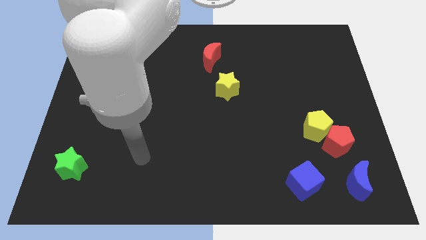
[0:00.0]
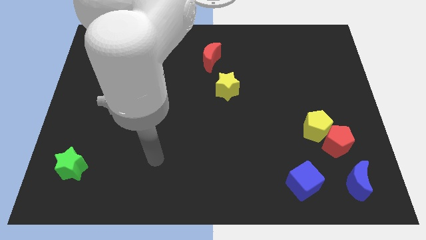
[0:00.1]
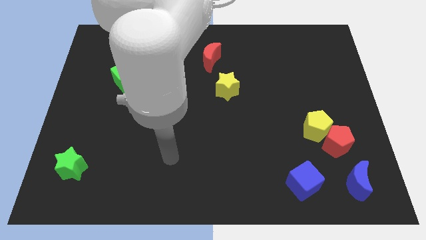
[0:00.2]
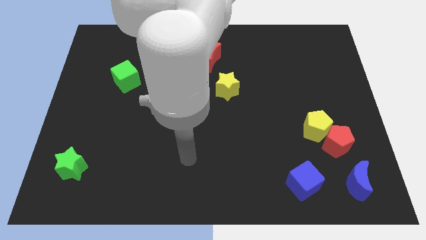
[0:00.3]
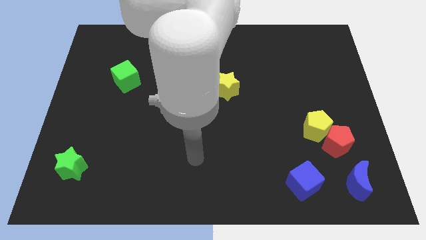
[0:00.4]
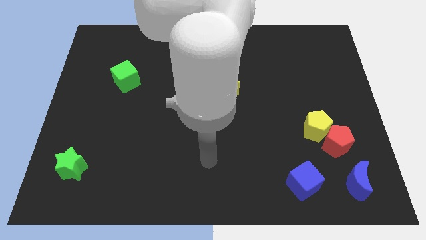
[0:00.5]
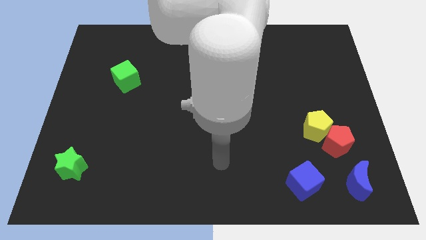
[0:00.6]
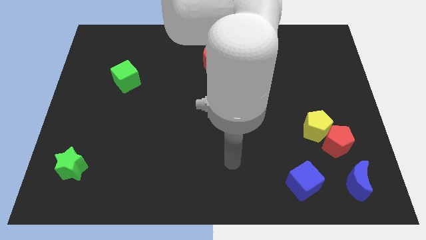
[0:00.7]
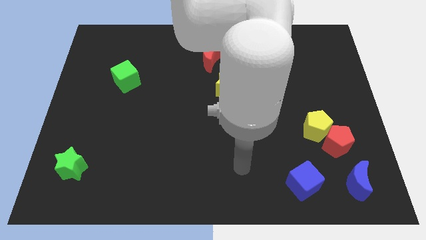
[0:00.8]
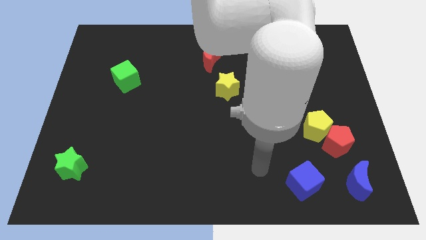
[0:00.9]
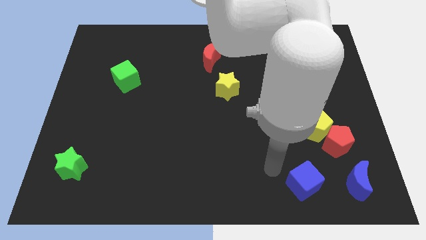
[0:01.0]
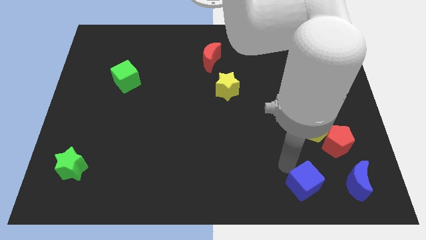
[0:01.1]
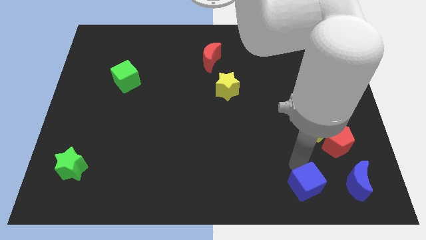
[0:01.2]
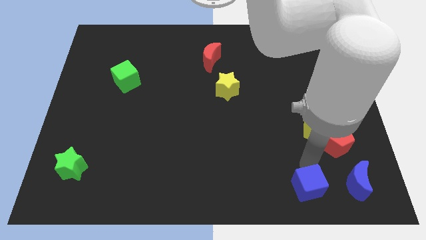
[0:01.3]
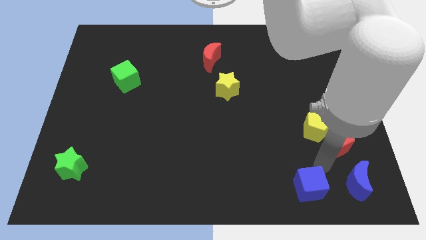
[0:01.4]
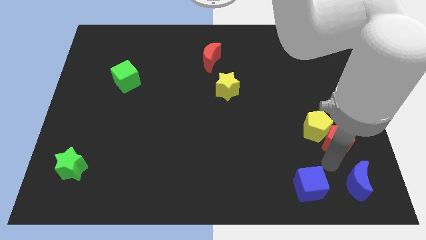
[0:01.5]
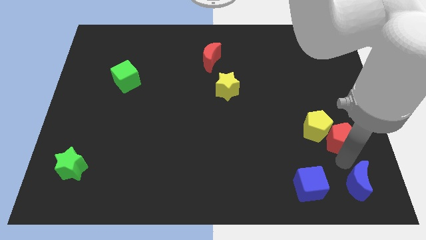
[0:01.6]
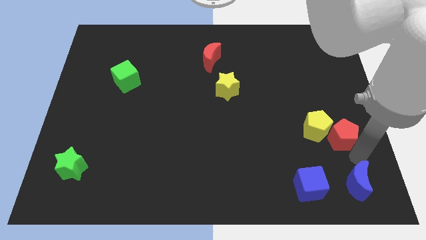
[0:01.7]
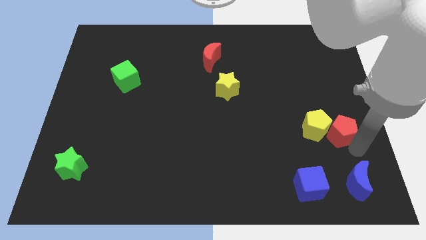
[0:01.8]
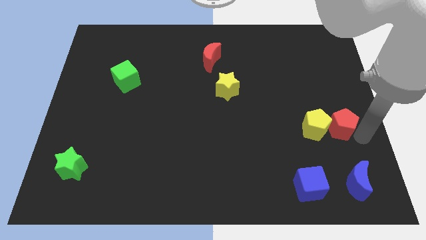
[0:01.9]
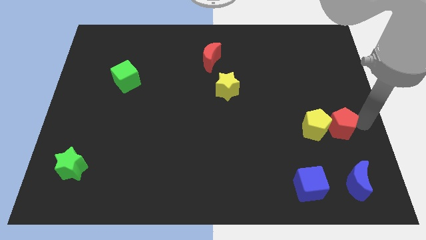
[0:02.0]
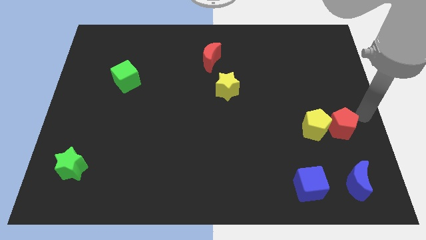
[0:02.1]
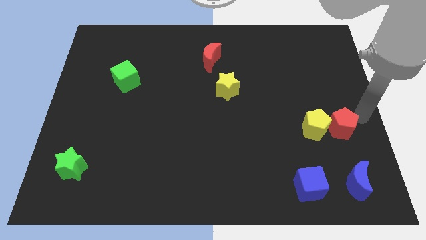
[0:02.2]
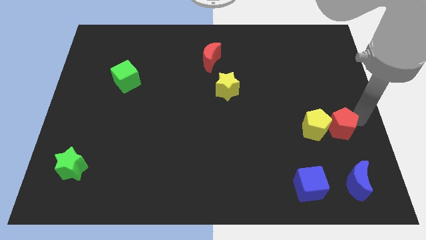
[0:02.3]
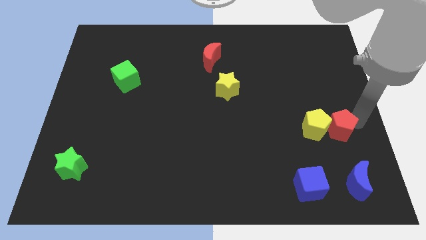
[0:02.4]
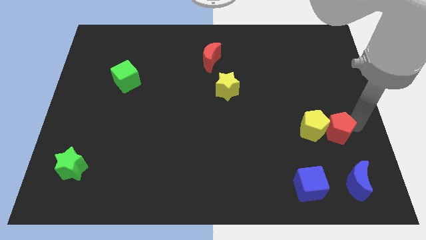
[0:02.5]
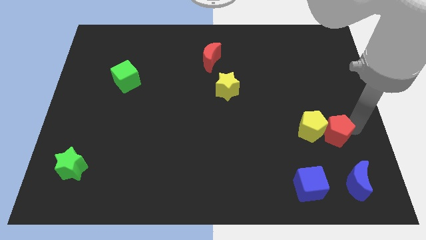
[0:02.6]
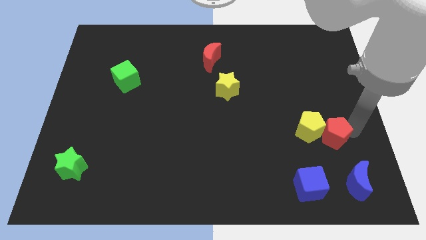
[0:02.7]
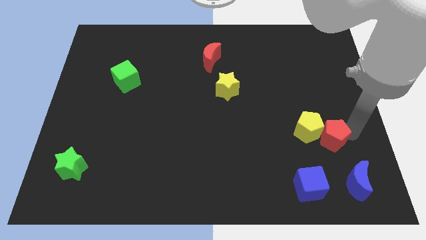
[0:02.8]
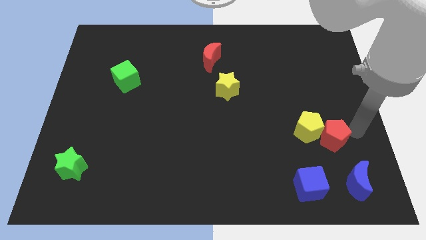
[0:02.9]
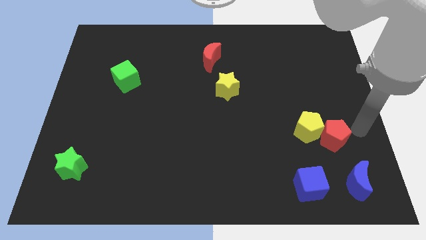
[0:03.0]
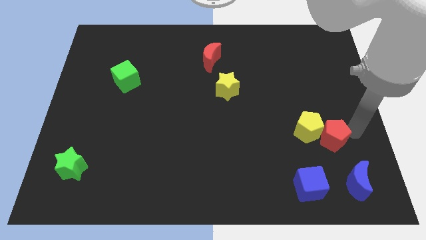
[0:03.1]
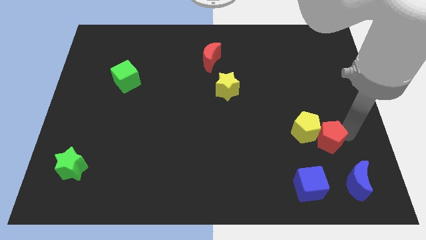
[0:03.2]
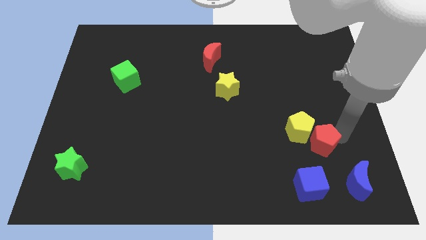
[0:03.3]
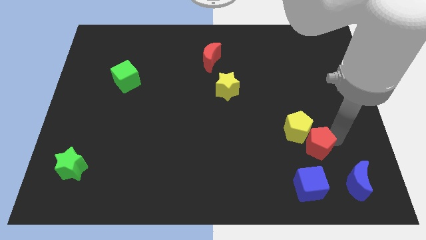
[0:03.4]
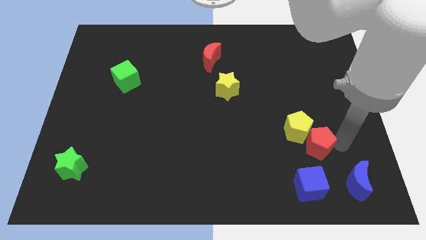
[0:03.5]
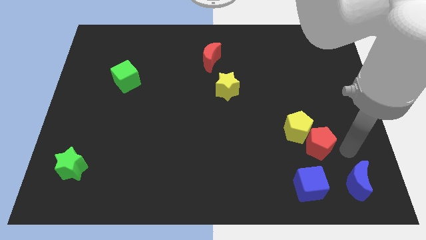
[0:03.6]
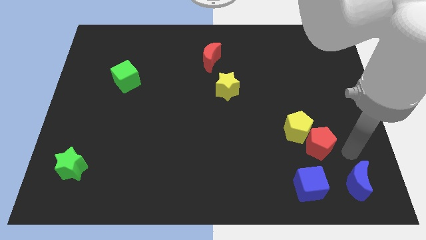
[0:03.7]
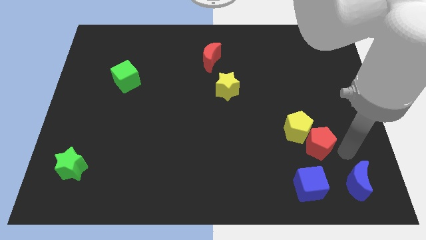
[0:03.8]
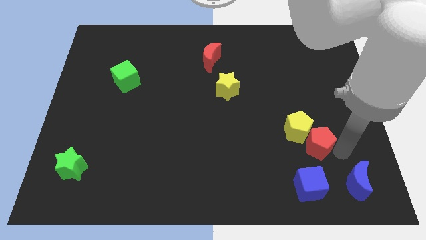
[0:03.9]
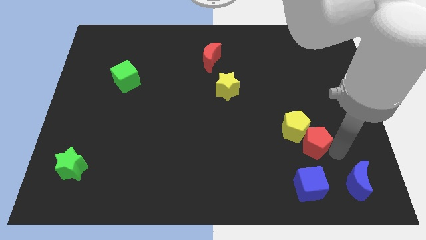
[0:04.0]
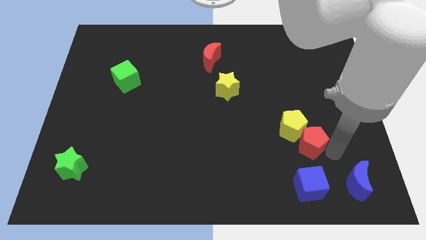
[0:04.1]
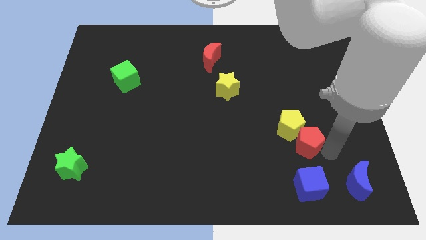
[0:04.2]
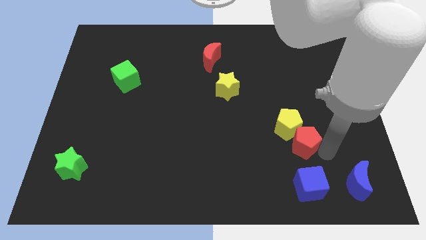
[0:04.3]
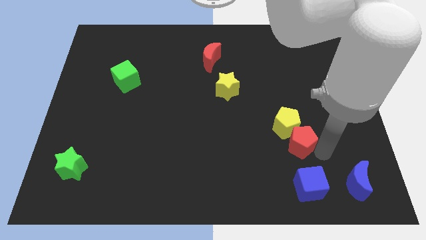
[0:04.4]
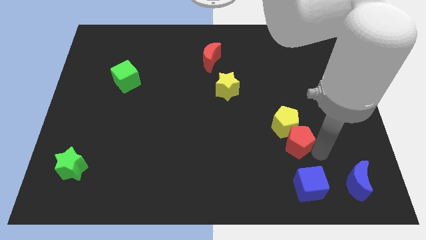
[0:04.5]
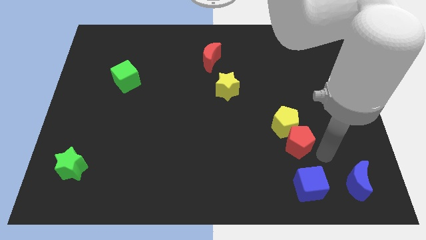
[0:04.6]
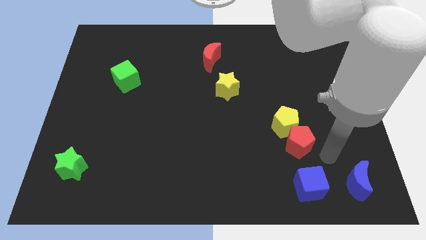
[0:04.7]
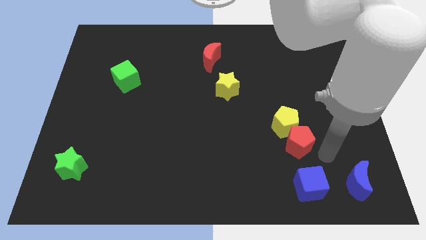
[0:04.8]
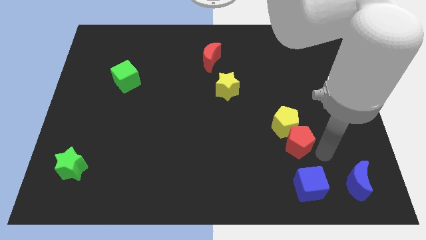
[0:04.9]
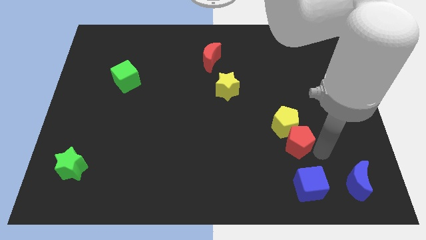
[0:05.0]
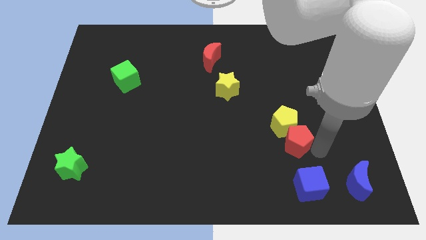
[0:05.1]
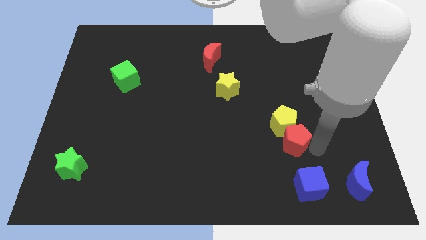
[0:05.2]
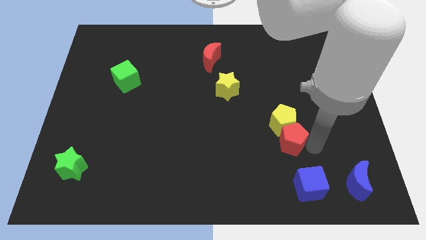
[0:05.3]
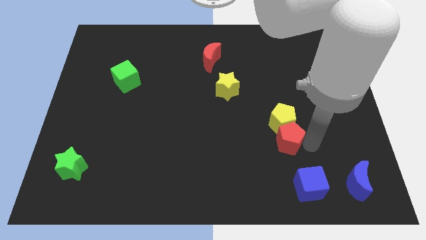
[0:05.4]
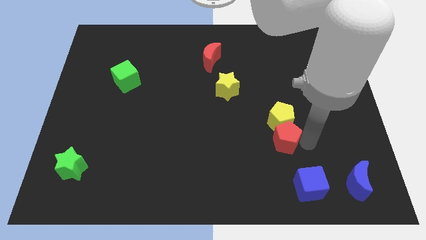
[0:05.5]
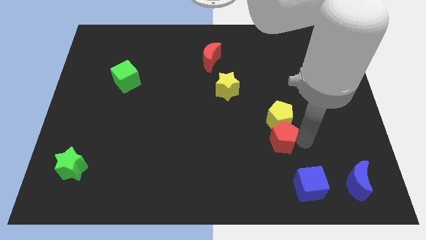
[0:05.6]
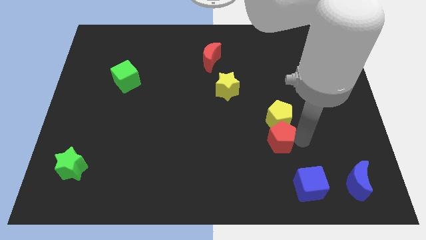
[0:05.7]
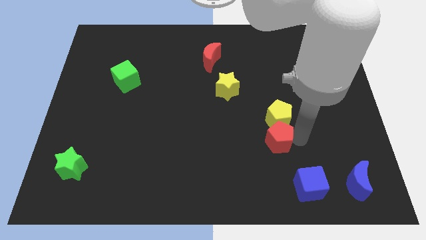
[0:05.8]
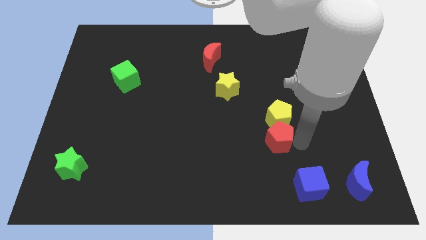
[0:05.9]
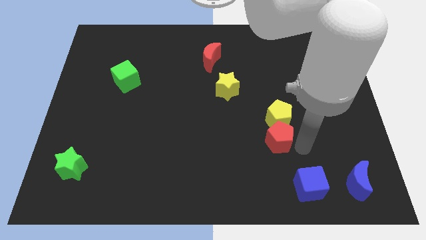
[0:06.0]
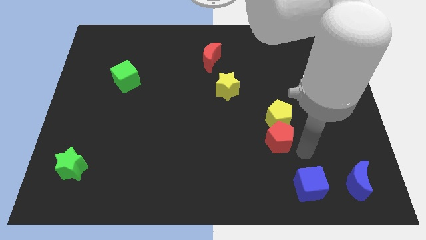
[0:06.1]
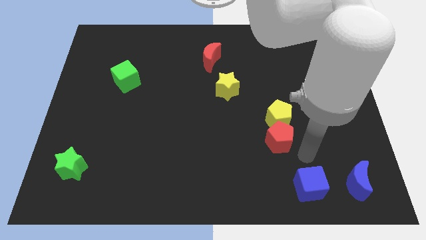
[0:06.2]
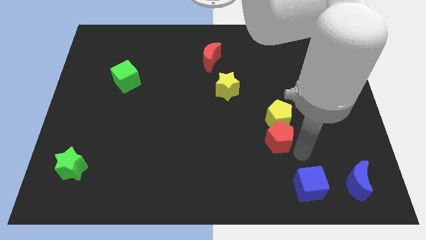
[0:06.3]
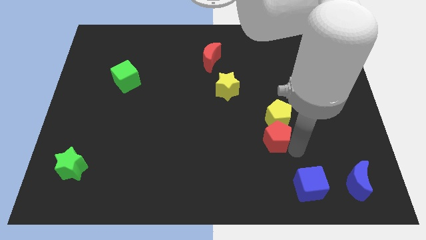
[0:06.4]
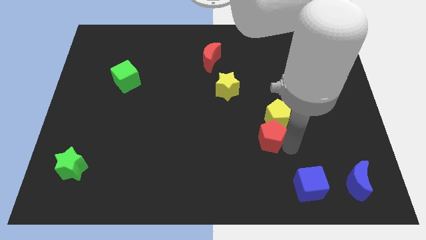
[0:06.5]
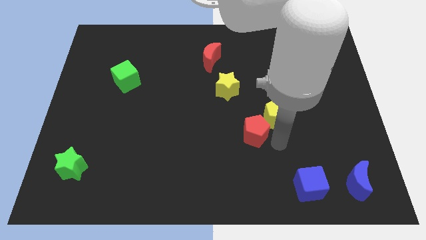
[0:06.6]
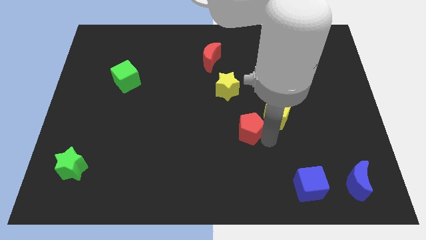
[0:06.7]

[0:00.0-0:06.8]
move the red pentagon to the center of the board
